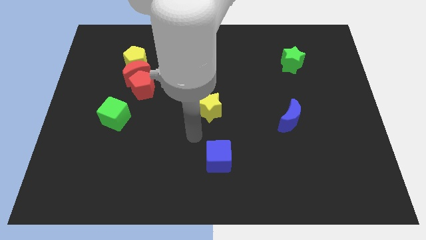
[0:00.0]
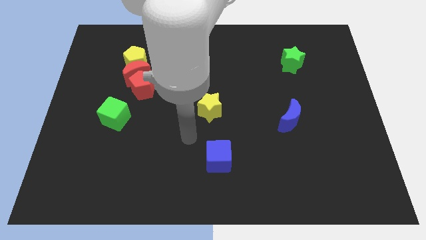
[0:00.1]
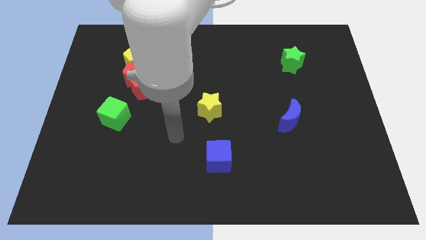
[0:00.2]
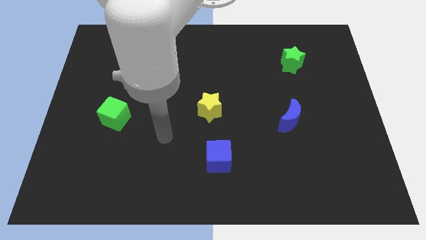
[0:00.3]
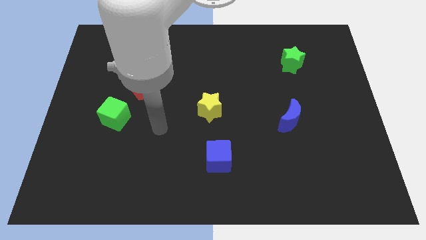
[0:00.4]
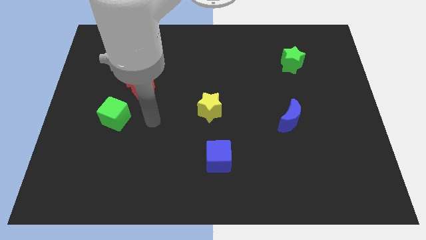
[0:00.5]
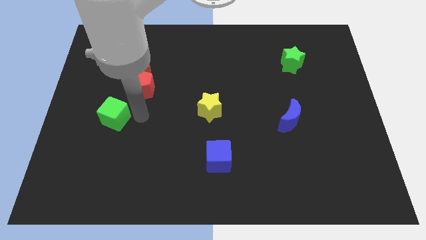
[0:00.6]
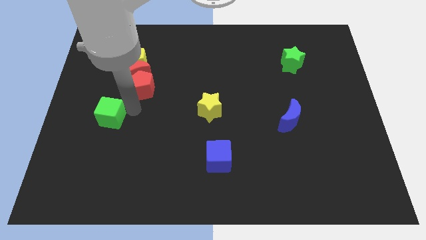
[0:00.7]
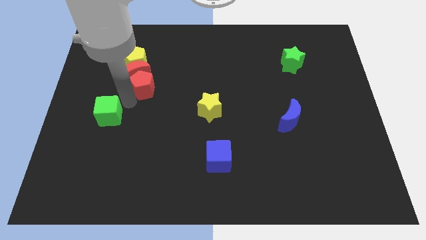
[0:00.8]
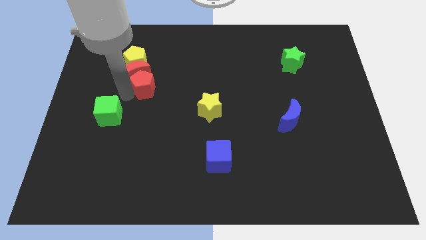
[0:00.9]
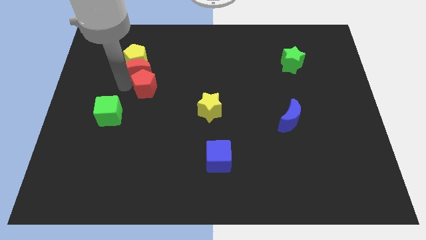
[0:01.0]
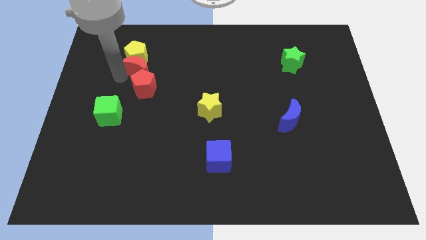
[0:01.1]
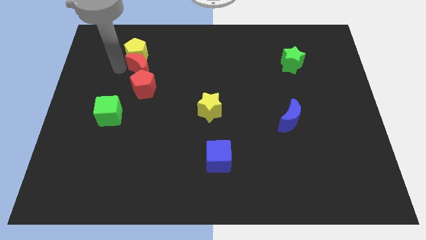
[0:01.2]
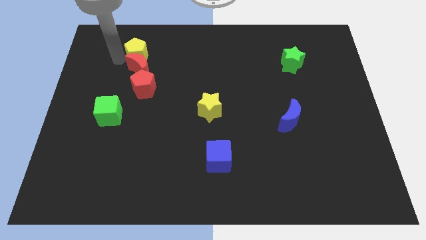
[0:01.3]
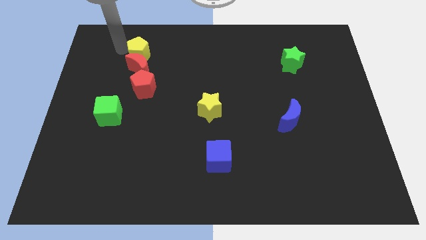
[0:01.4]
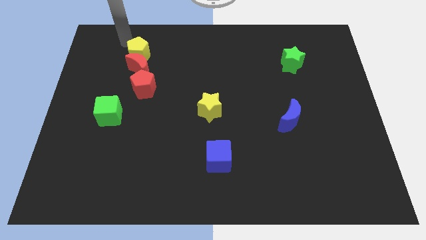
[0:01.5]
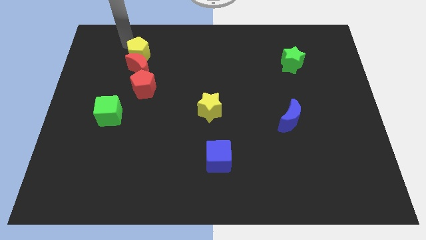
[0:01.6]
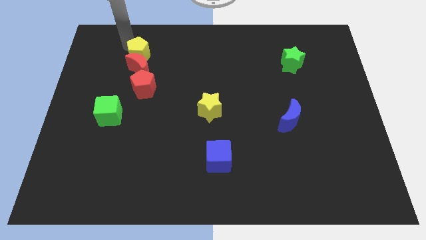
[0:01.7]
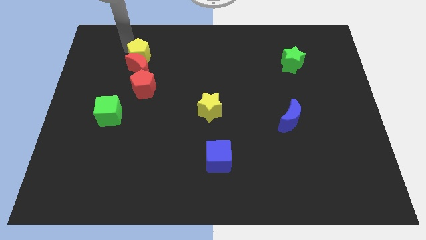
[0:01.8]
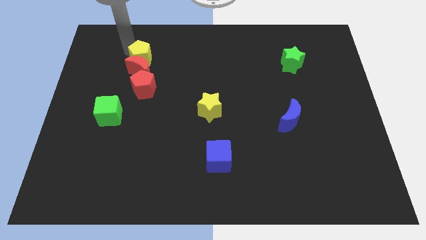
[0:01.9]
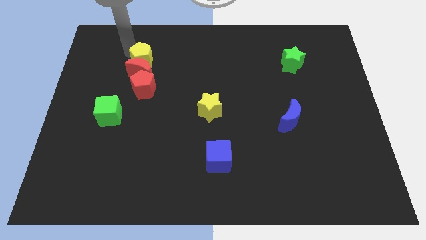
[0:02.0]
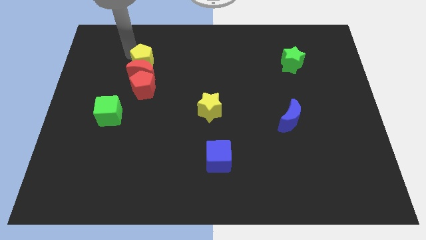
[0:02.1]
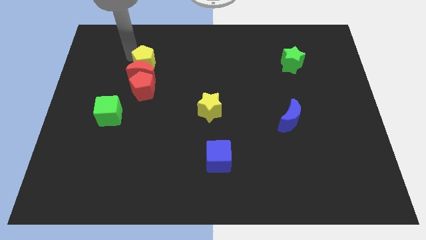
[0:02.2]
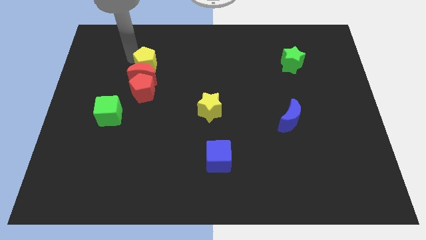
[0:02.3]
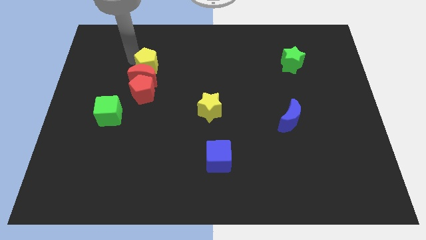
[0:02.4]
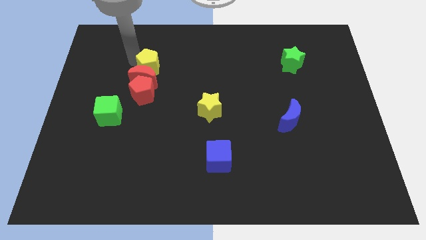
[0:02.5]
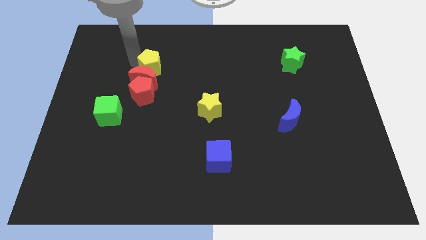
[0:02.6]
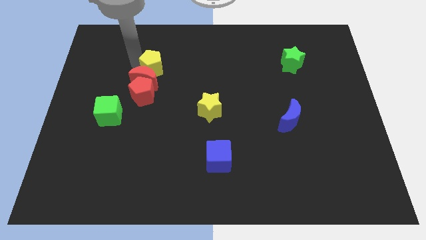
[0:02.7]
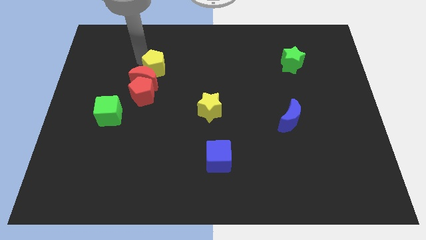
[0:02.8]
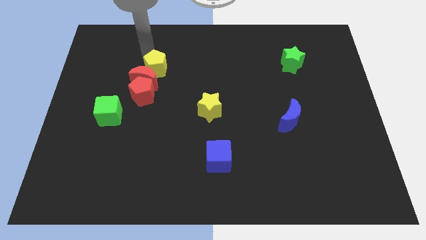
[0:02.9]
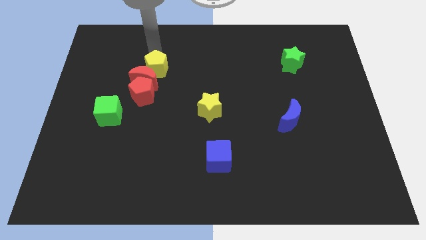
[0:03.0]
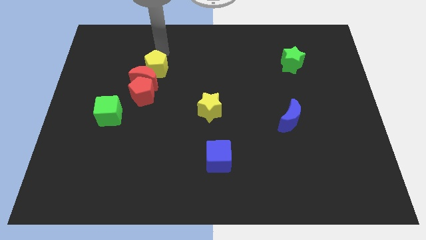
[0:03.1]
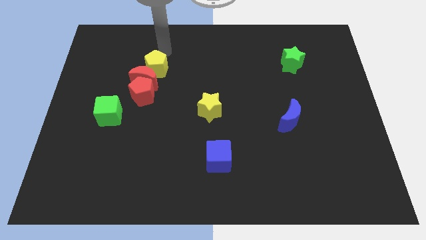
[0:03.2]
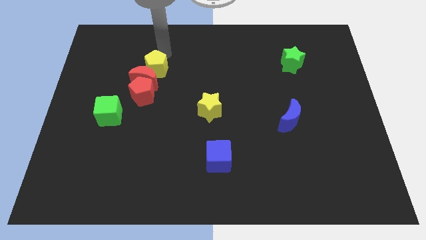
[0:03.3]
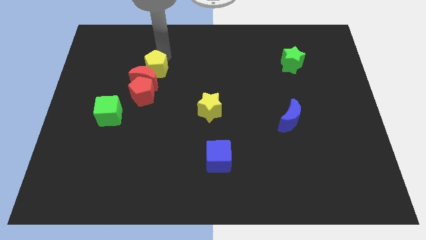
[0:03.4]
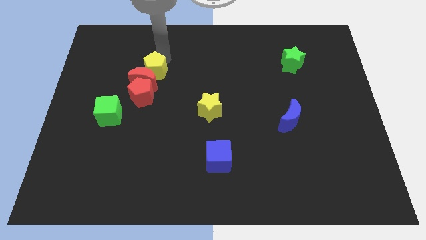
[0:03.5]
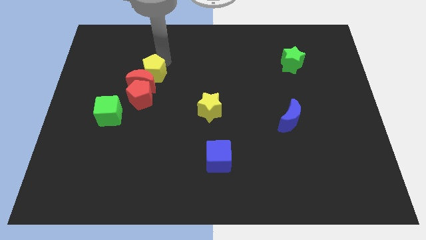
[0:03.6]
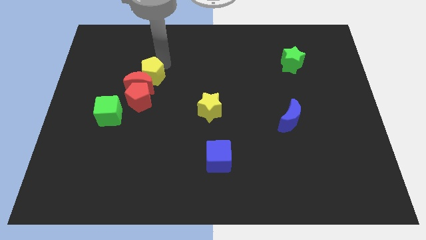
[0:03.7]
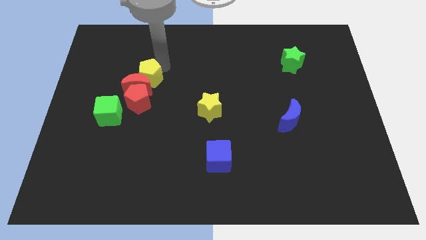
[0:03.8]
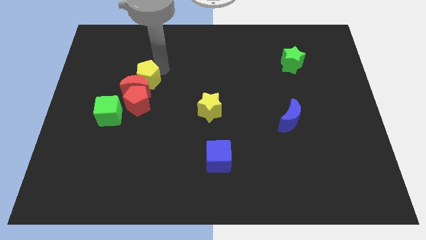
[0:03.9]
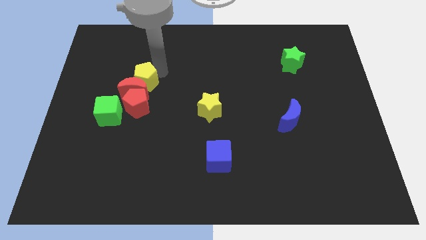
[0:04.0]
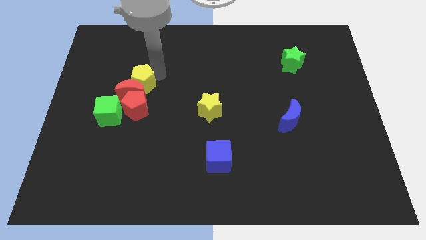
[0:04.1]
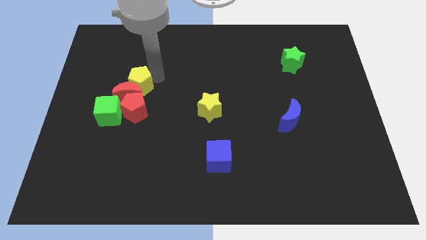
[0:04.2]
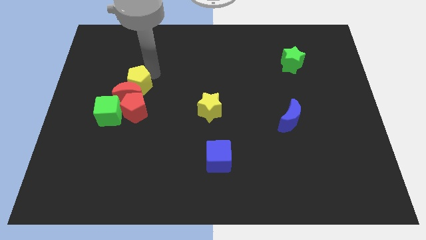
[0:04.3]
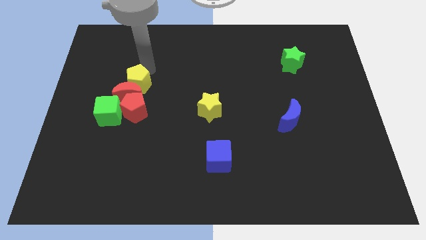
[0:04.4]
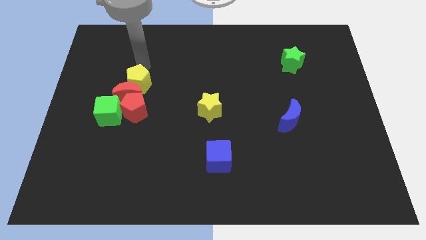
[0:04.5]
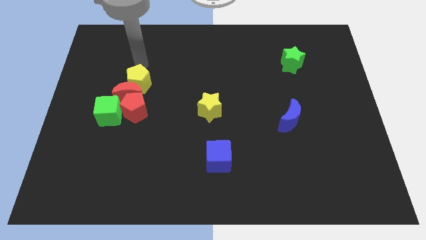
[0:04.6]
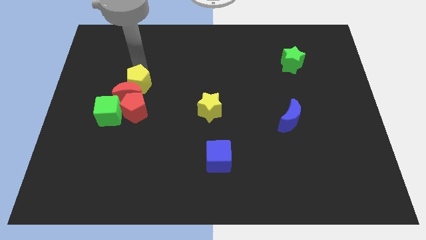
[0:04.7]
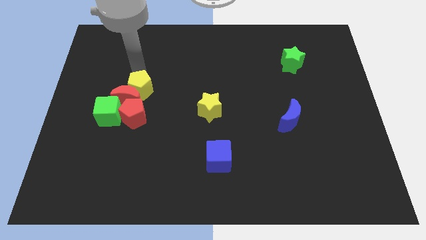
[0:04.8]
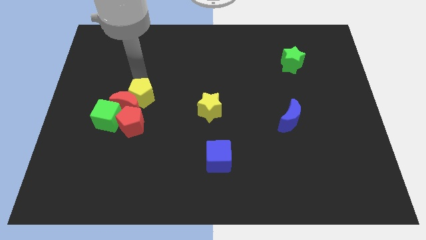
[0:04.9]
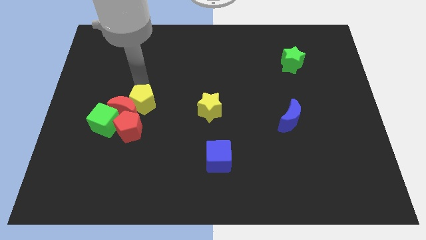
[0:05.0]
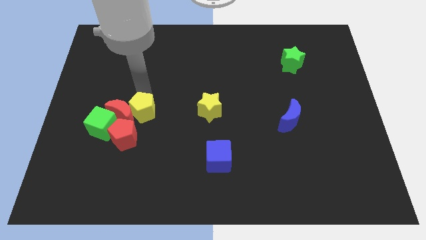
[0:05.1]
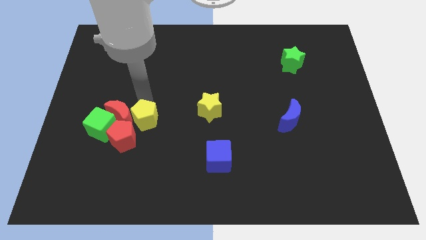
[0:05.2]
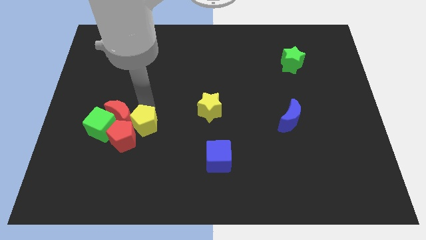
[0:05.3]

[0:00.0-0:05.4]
push the yellow pentagon towards the red pentagon

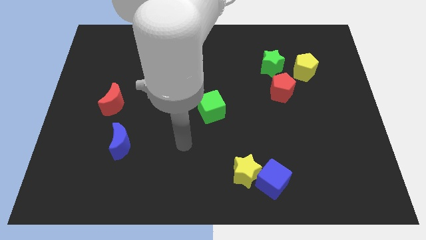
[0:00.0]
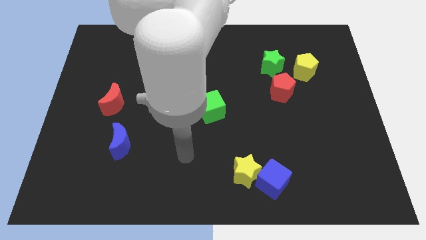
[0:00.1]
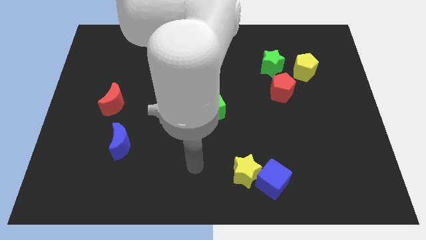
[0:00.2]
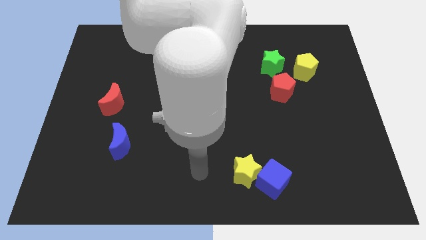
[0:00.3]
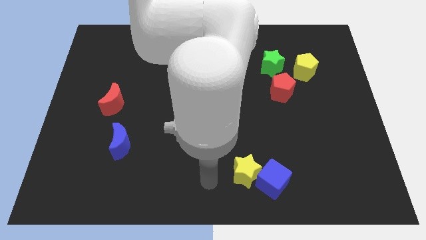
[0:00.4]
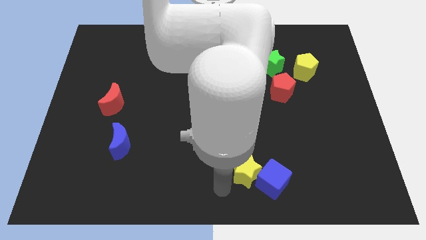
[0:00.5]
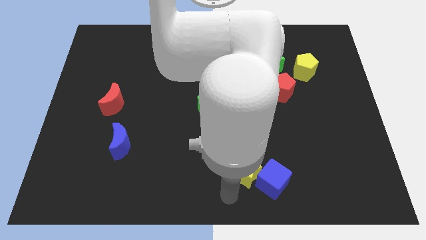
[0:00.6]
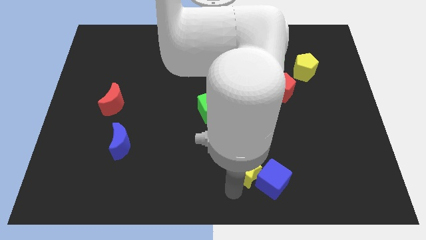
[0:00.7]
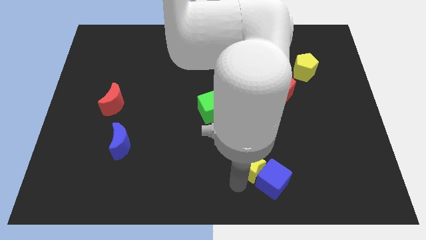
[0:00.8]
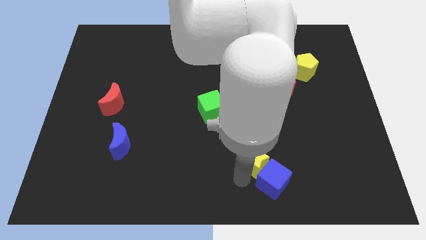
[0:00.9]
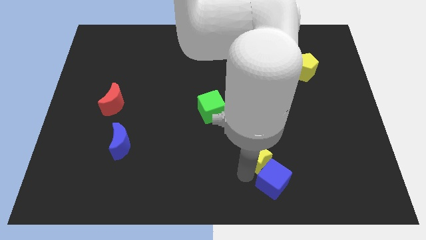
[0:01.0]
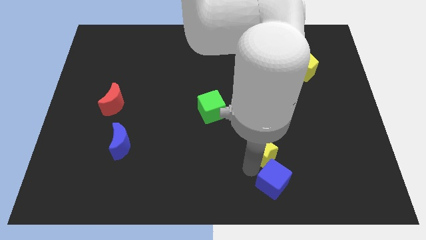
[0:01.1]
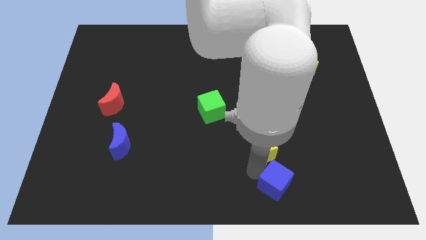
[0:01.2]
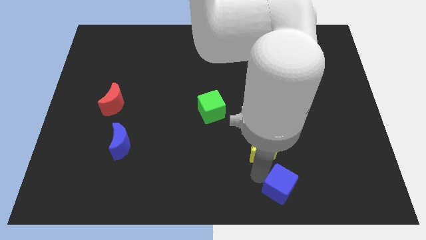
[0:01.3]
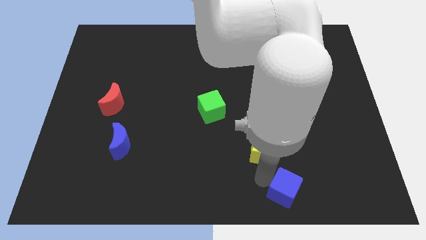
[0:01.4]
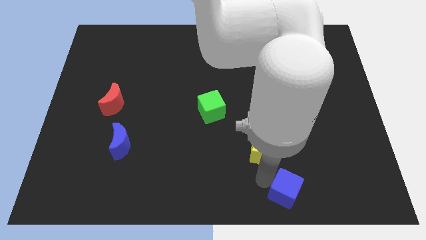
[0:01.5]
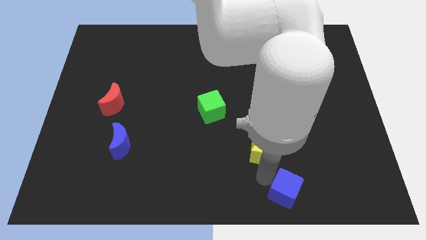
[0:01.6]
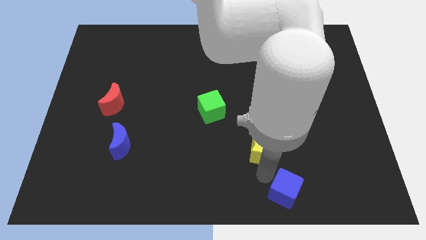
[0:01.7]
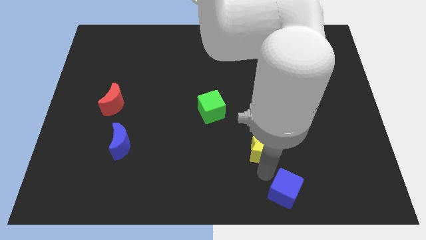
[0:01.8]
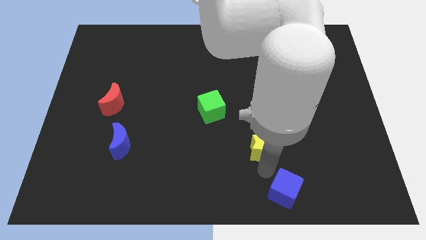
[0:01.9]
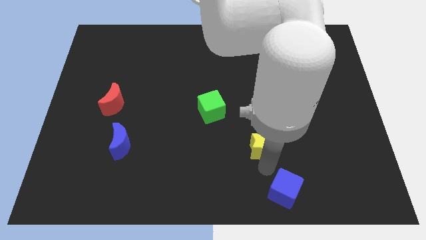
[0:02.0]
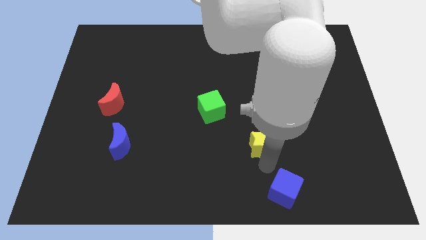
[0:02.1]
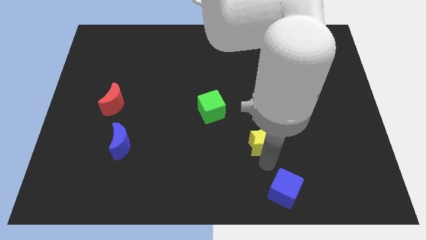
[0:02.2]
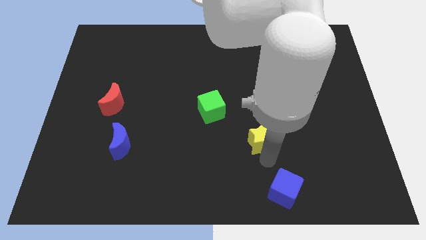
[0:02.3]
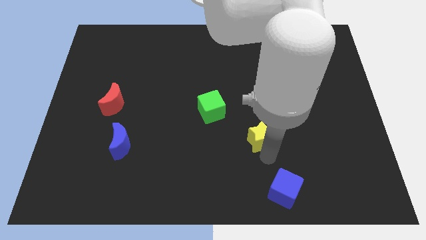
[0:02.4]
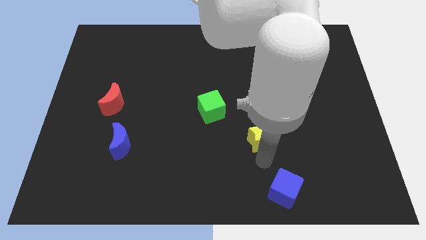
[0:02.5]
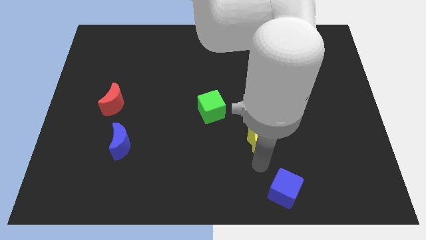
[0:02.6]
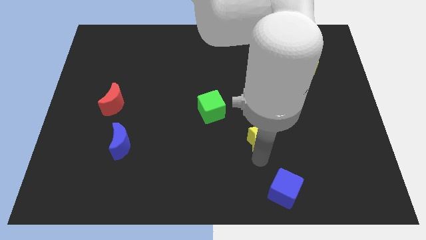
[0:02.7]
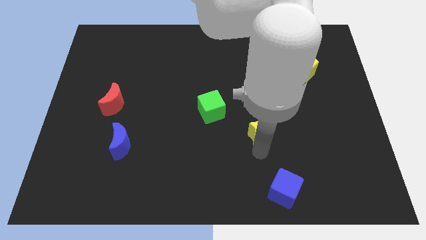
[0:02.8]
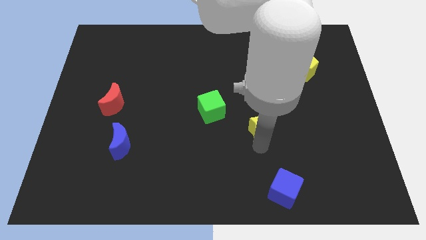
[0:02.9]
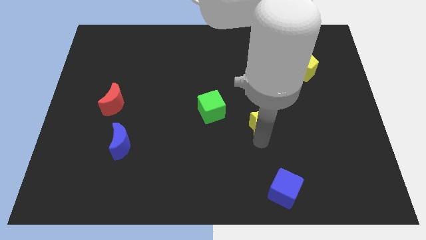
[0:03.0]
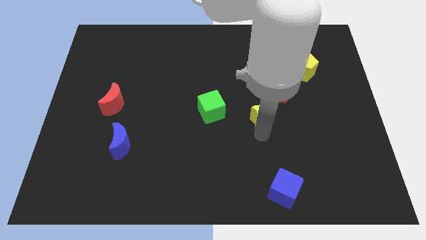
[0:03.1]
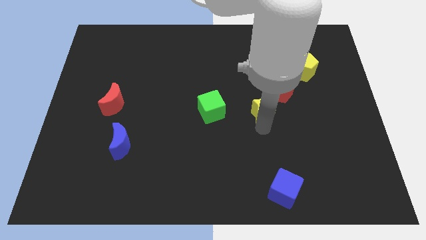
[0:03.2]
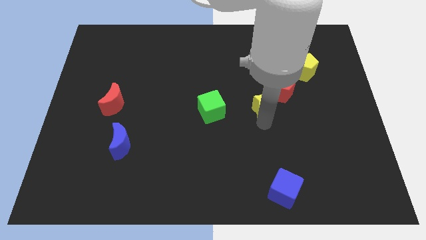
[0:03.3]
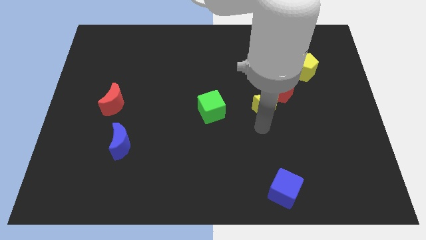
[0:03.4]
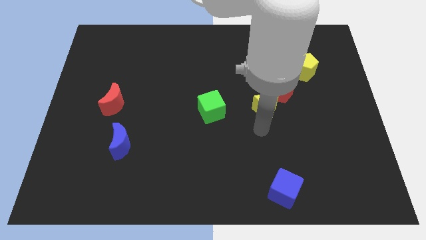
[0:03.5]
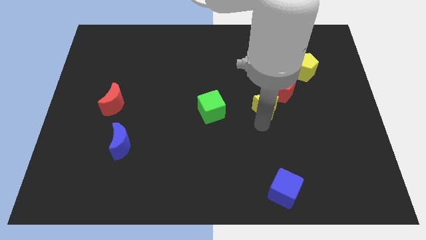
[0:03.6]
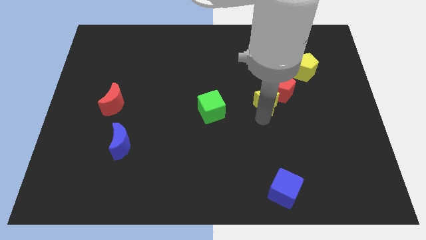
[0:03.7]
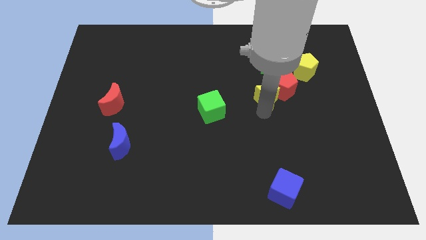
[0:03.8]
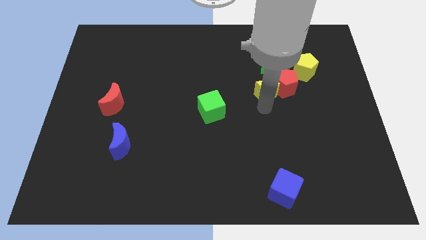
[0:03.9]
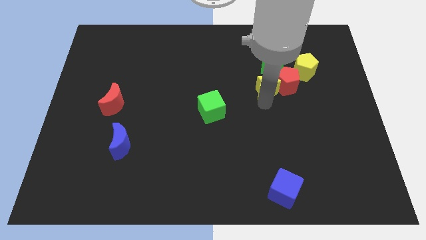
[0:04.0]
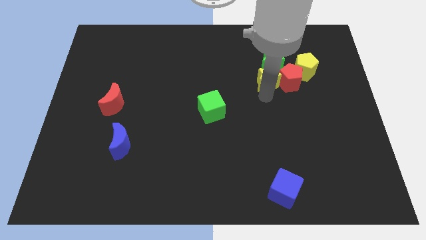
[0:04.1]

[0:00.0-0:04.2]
slide the yellow star close to the green star
